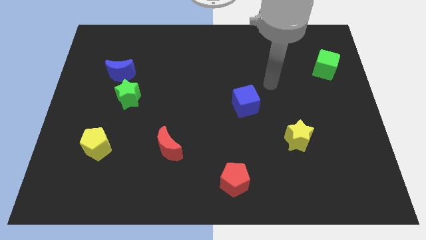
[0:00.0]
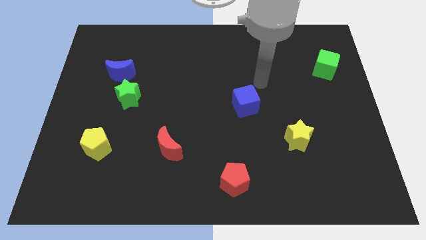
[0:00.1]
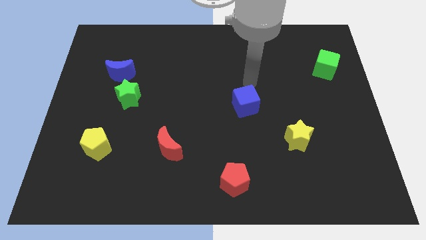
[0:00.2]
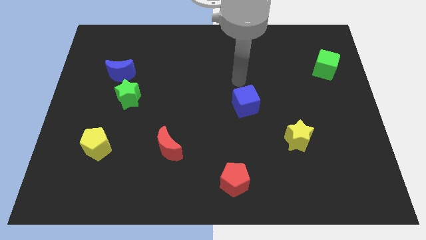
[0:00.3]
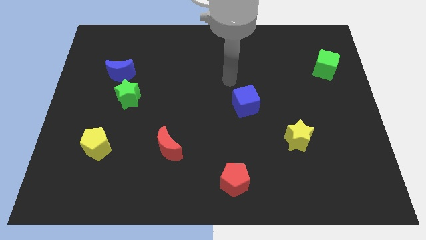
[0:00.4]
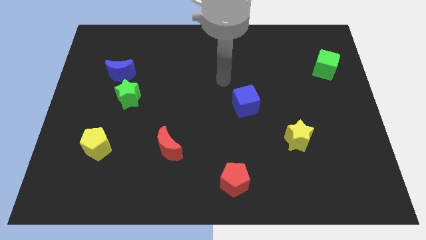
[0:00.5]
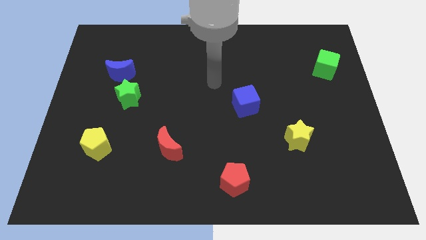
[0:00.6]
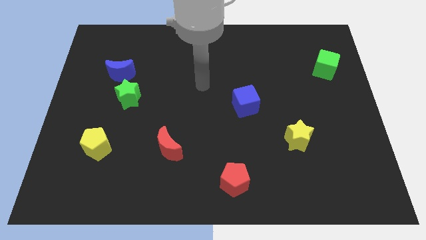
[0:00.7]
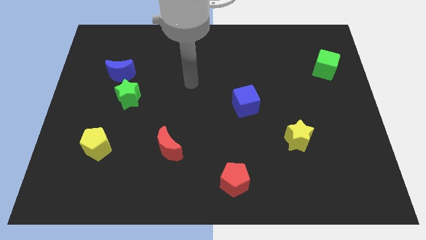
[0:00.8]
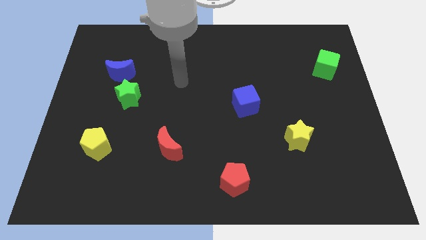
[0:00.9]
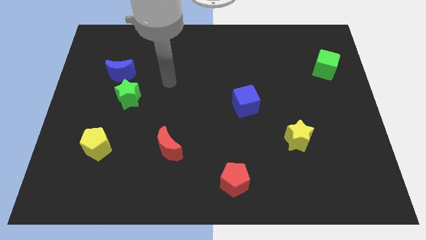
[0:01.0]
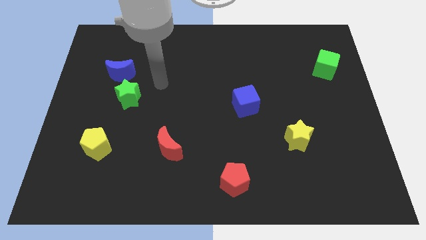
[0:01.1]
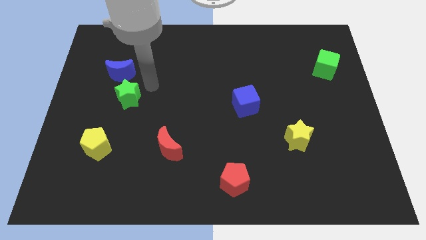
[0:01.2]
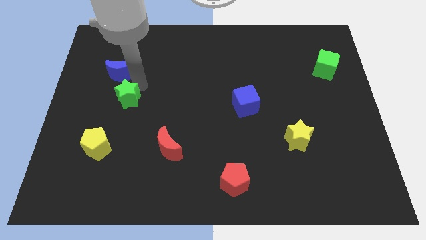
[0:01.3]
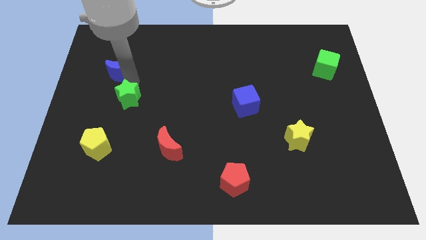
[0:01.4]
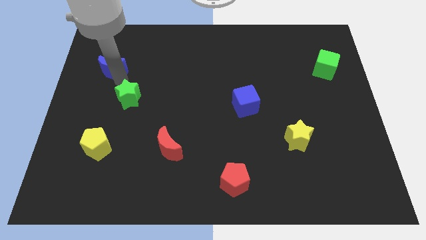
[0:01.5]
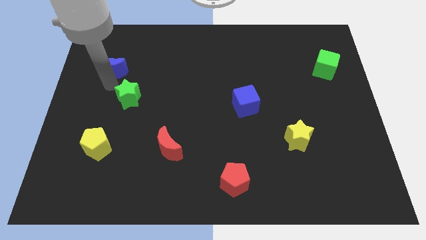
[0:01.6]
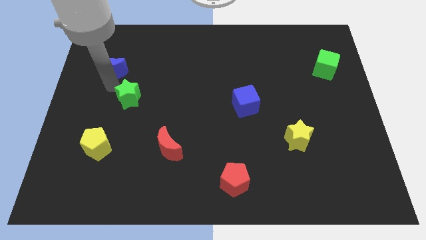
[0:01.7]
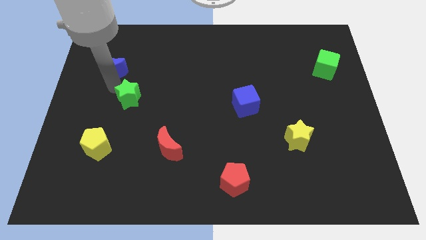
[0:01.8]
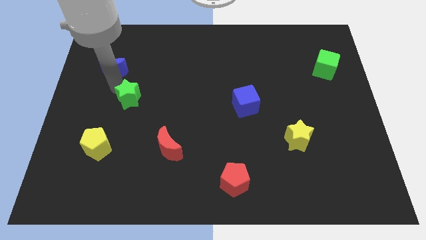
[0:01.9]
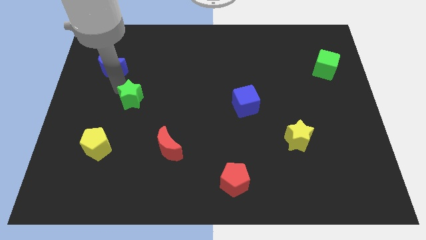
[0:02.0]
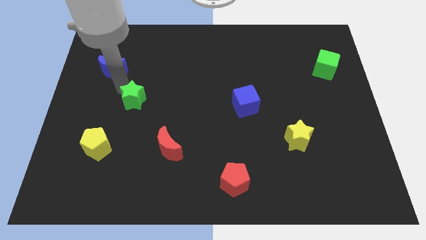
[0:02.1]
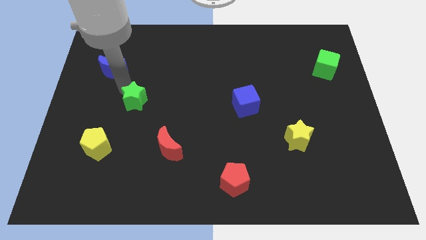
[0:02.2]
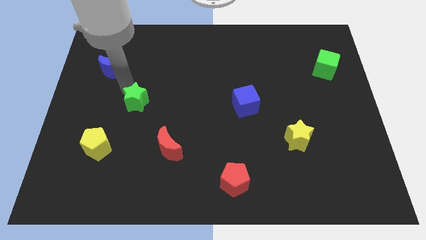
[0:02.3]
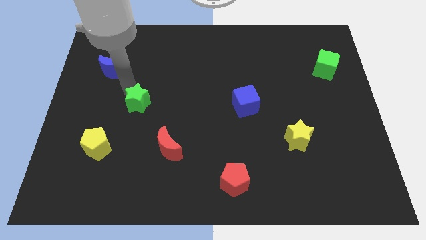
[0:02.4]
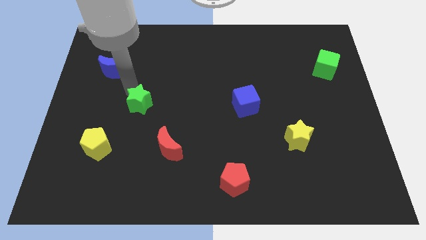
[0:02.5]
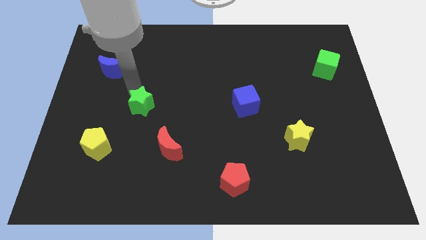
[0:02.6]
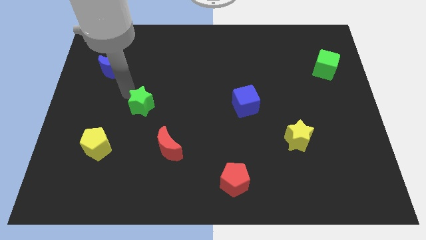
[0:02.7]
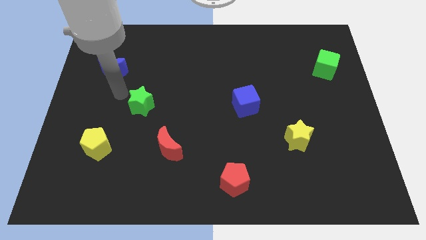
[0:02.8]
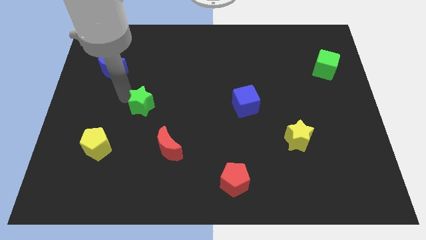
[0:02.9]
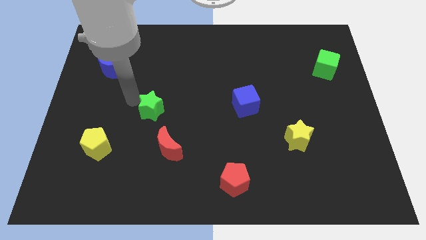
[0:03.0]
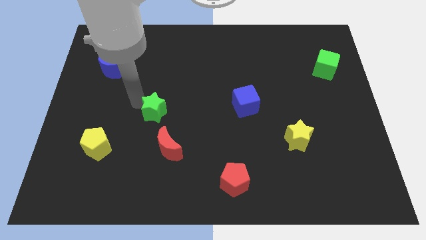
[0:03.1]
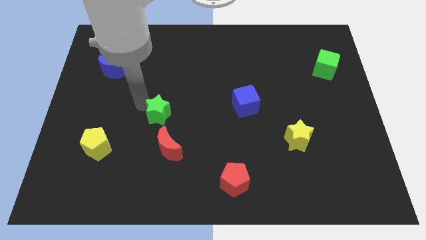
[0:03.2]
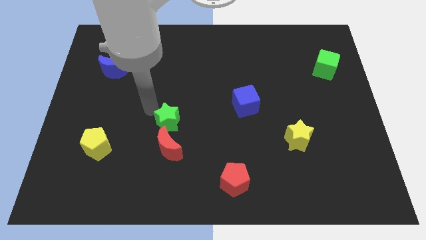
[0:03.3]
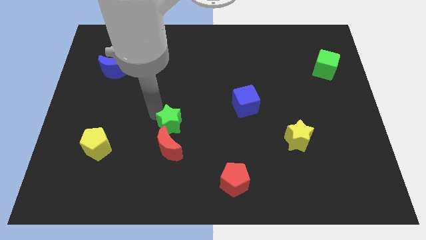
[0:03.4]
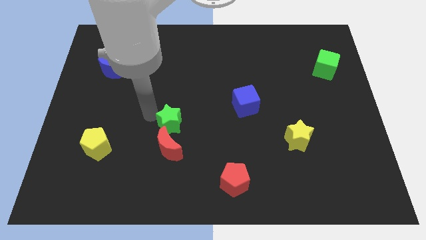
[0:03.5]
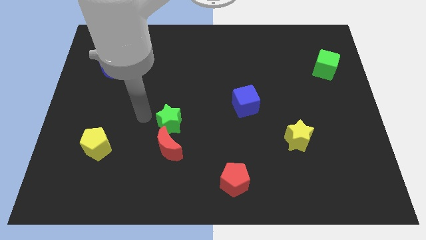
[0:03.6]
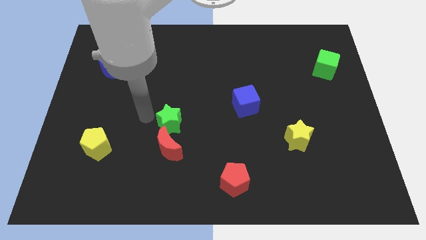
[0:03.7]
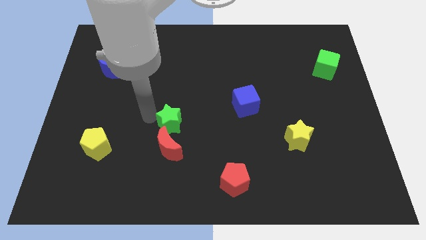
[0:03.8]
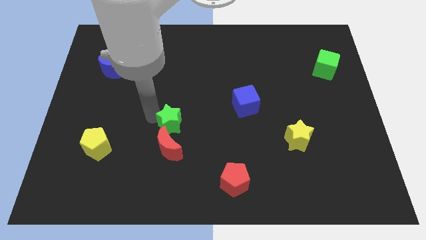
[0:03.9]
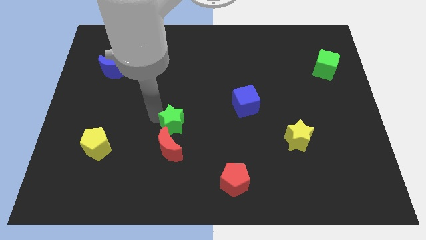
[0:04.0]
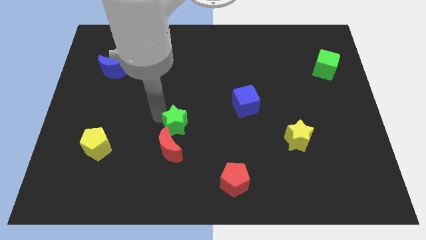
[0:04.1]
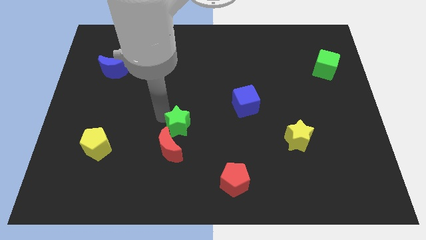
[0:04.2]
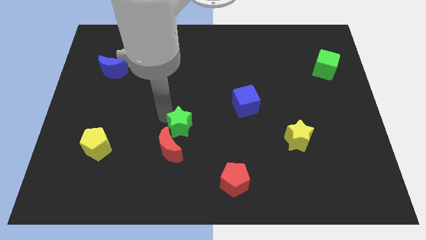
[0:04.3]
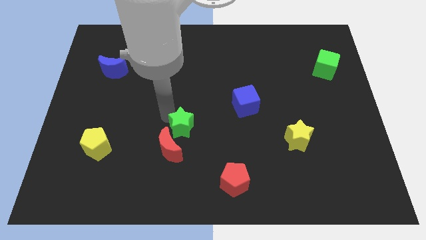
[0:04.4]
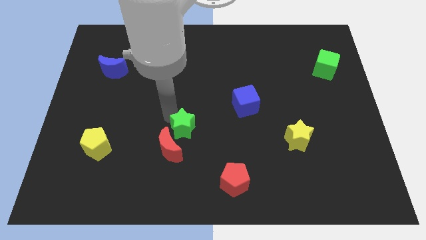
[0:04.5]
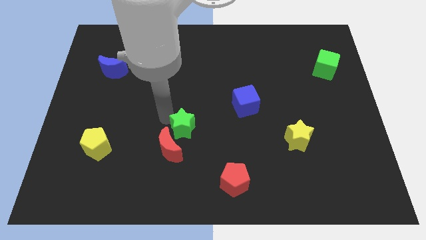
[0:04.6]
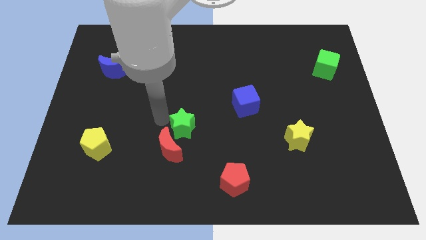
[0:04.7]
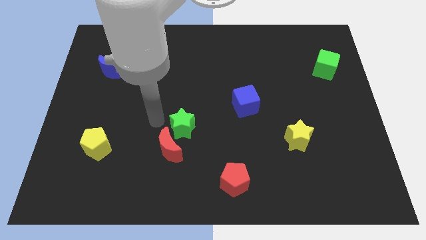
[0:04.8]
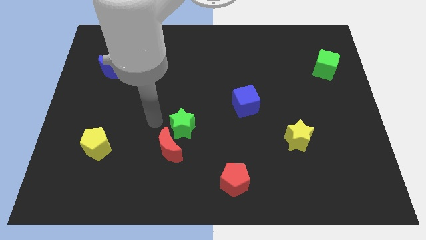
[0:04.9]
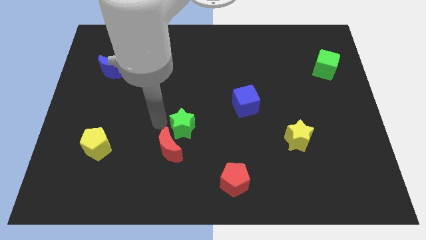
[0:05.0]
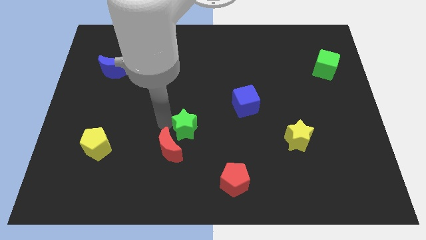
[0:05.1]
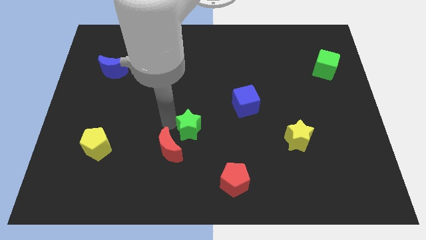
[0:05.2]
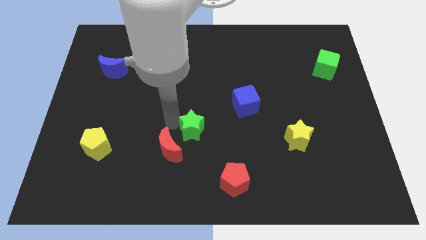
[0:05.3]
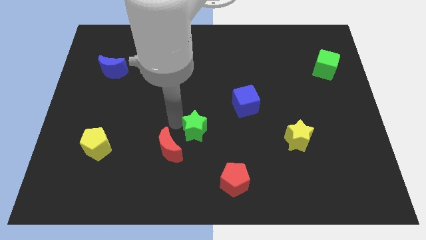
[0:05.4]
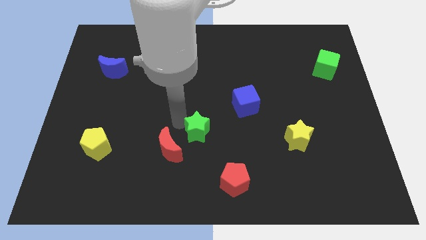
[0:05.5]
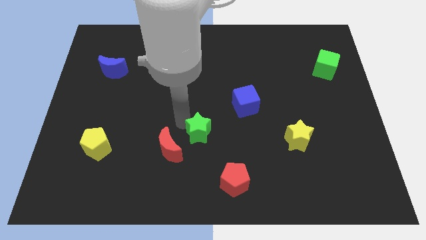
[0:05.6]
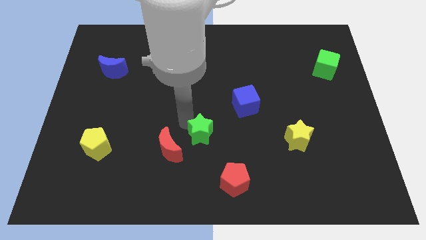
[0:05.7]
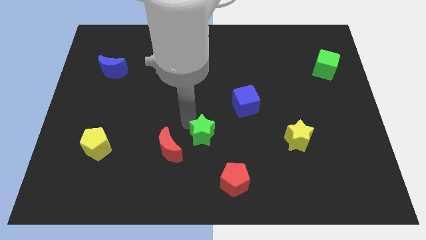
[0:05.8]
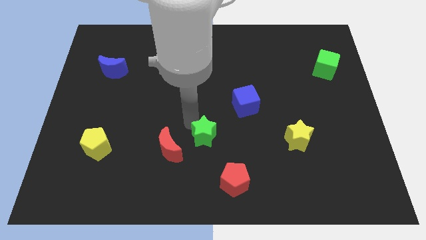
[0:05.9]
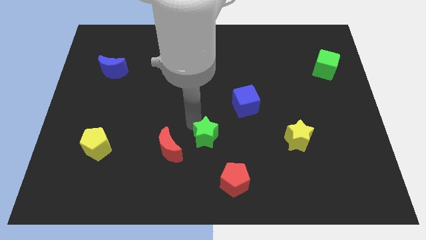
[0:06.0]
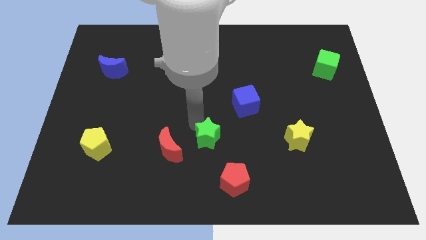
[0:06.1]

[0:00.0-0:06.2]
slide the green star to the top left of the red pentagon
